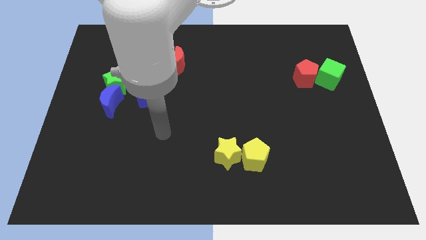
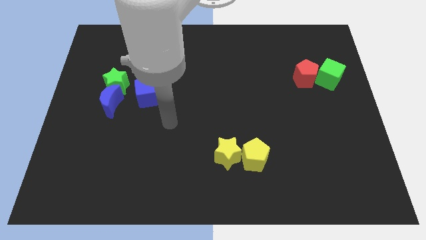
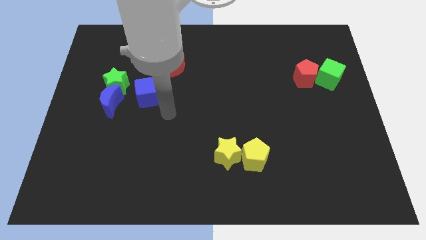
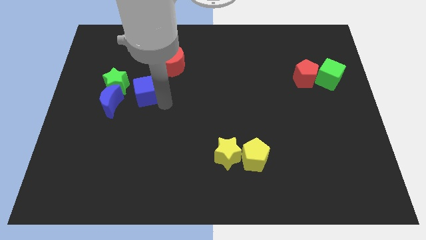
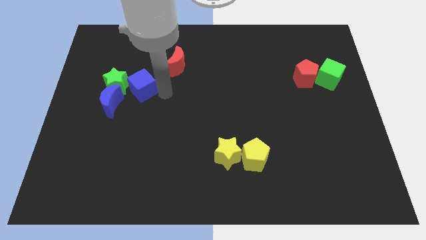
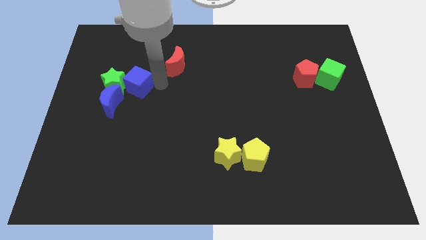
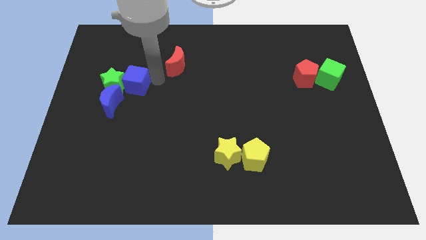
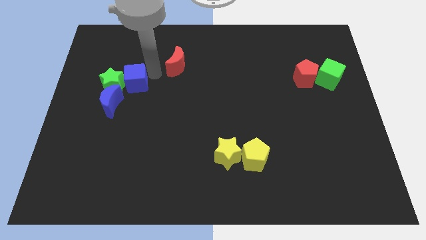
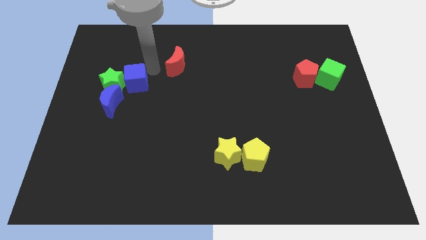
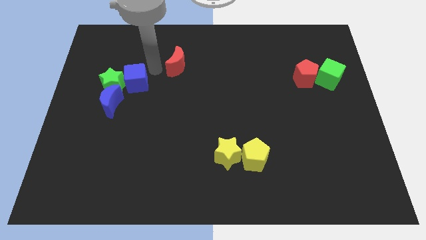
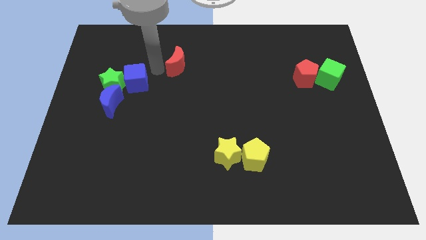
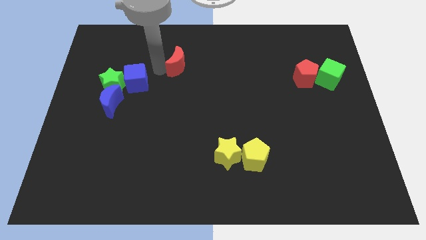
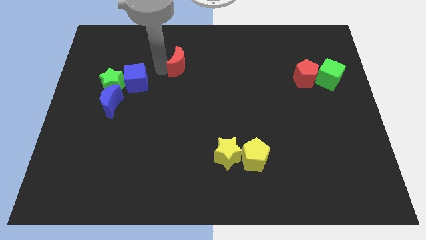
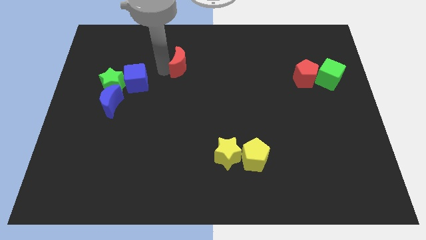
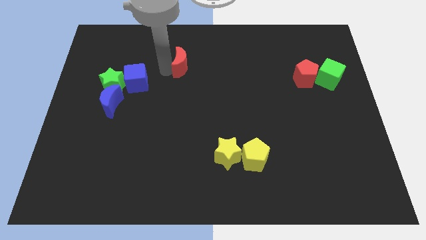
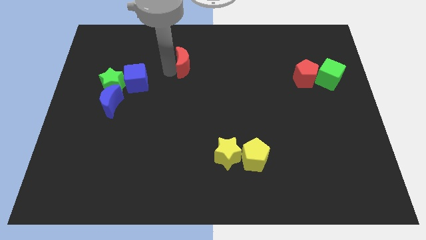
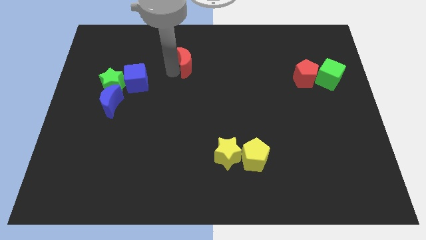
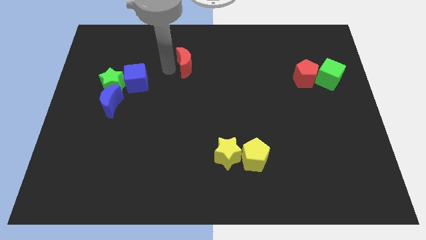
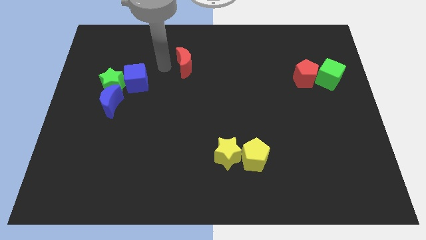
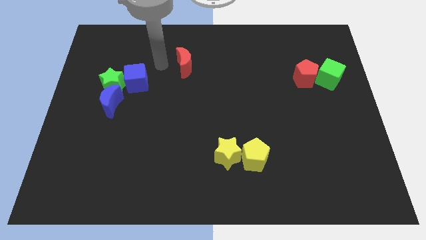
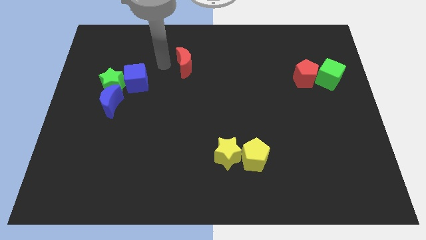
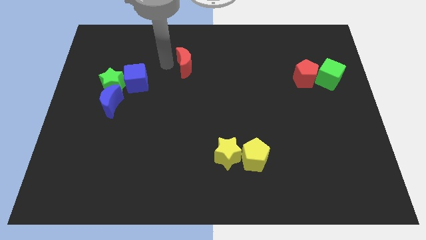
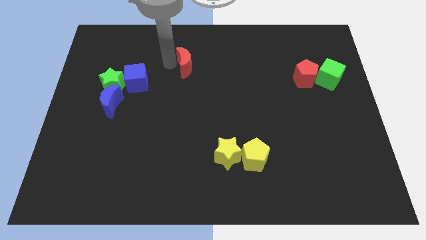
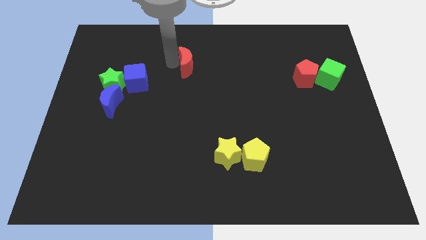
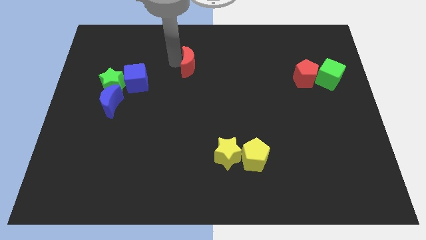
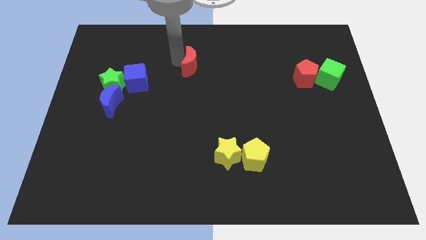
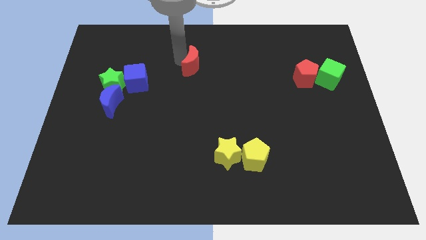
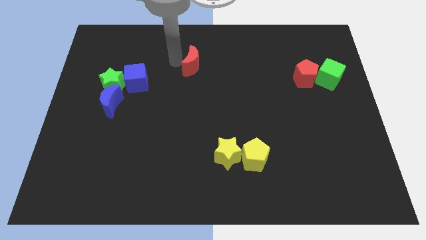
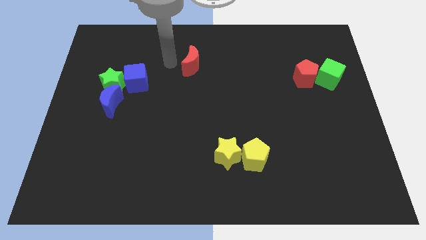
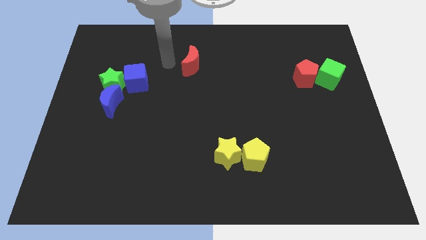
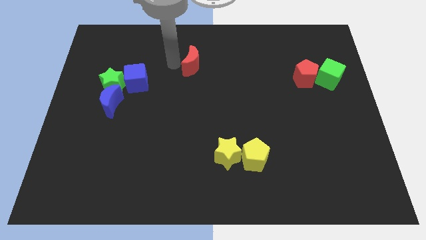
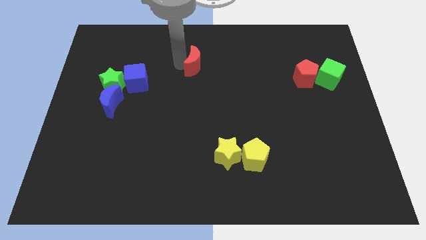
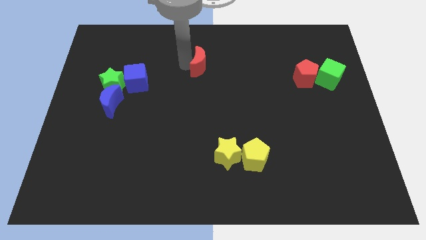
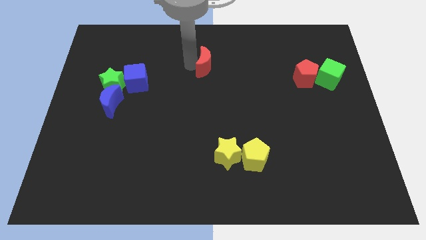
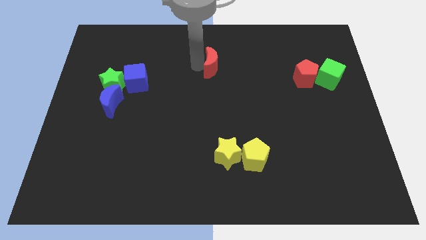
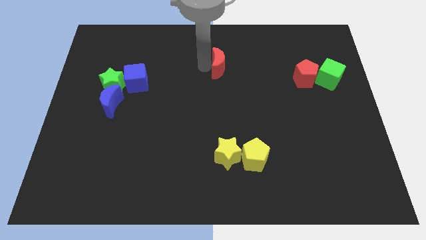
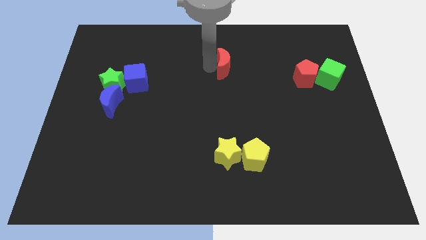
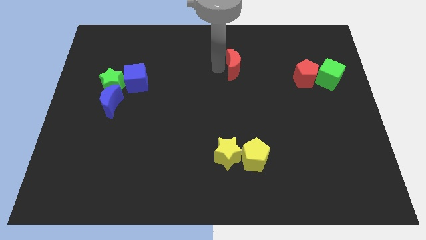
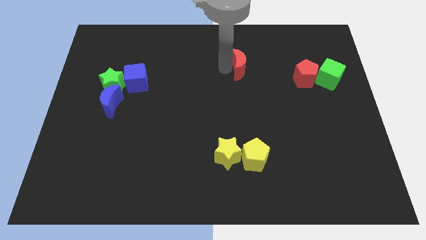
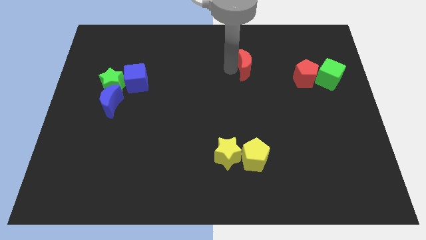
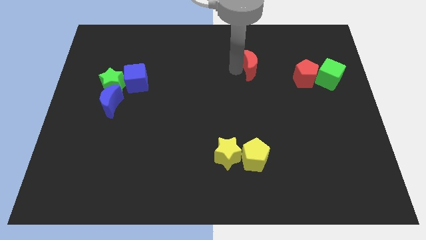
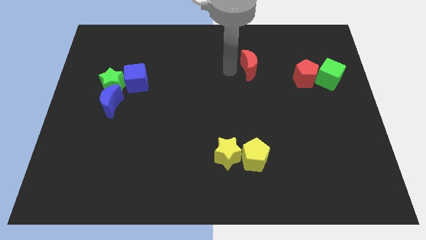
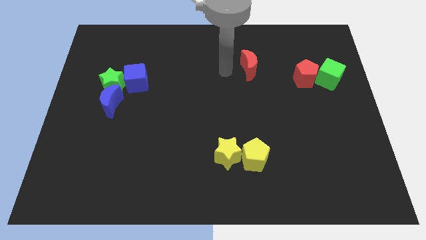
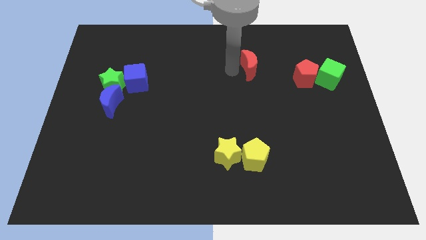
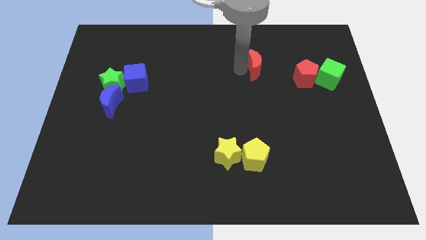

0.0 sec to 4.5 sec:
slide the red moon right

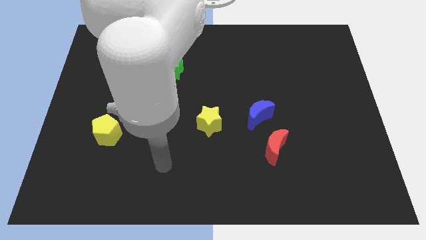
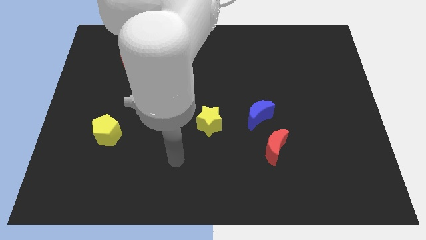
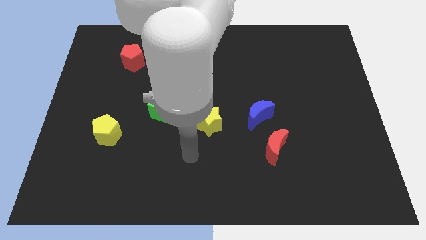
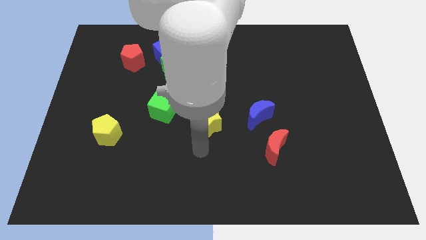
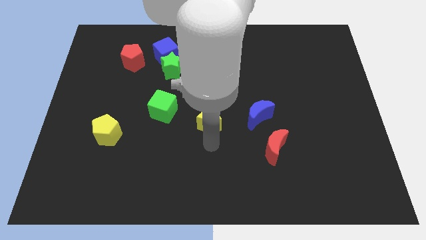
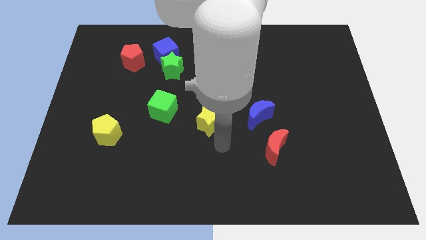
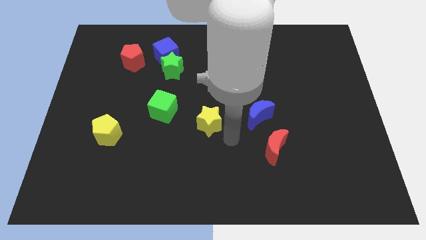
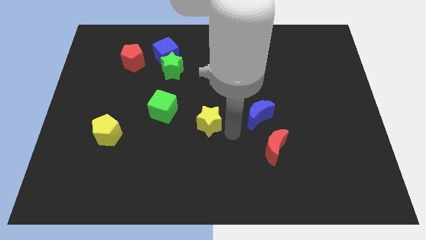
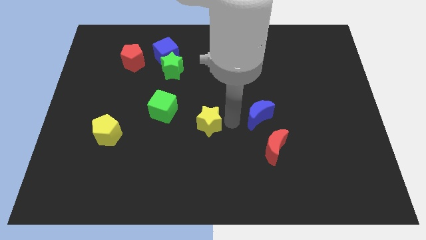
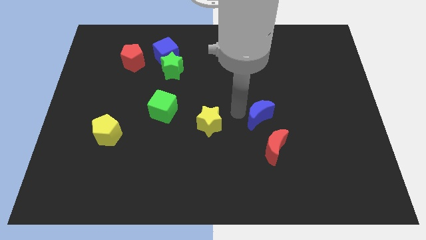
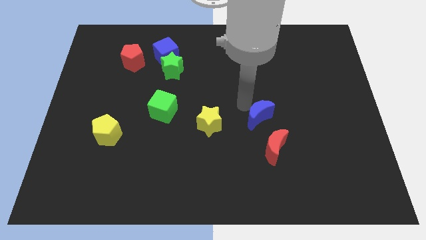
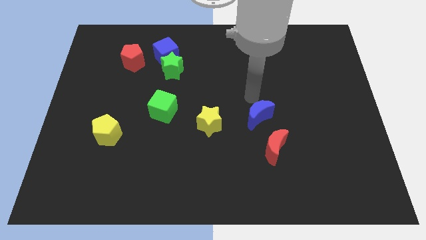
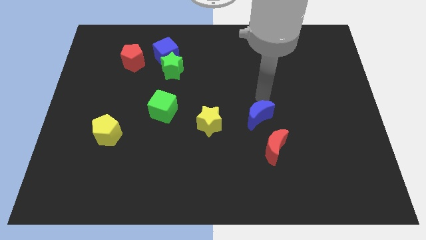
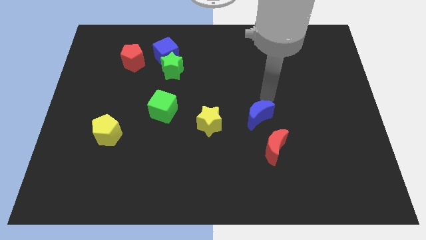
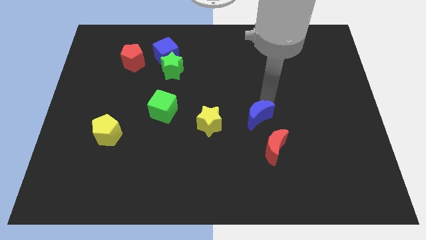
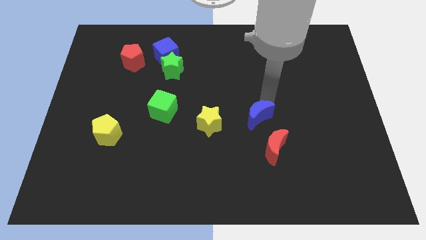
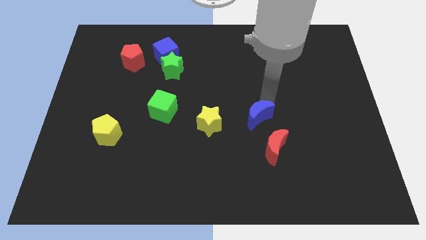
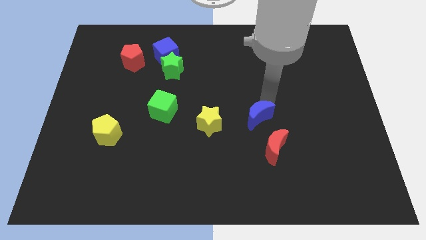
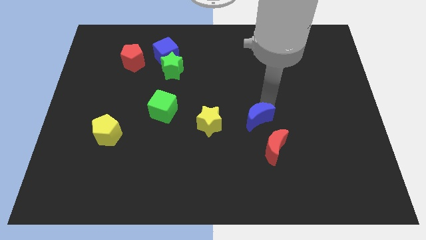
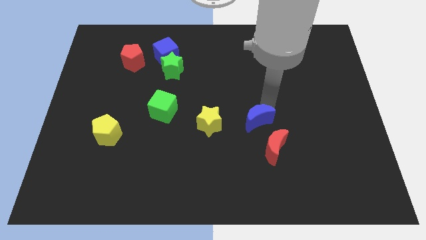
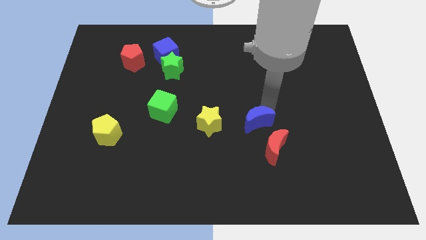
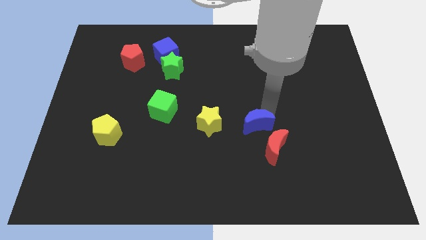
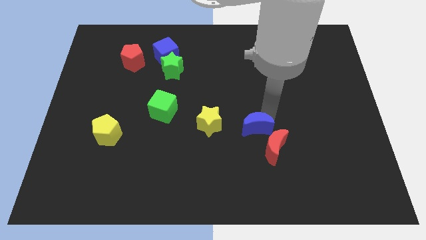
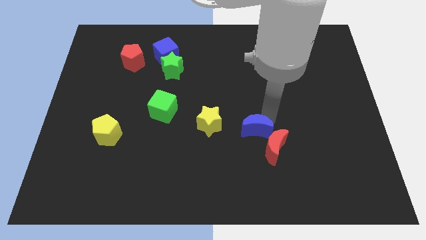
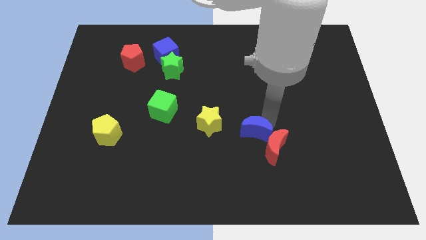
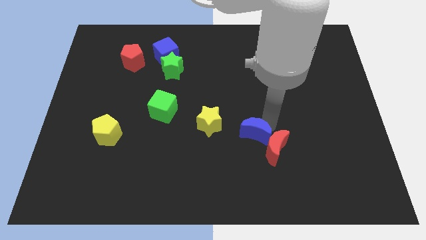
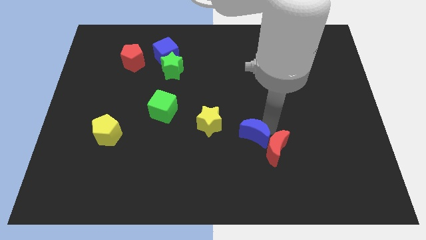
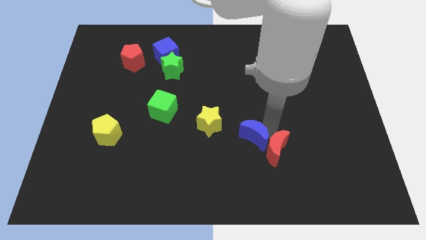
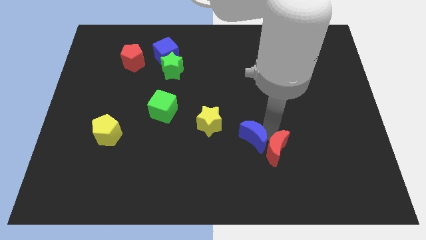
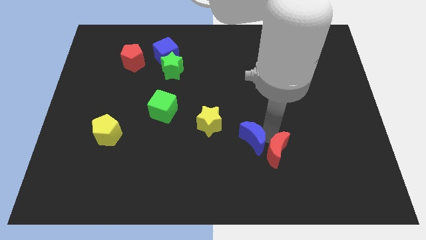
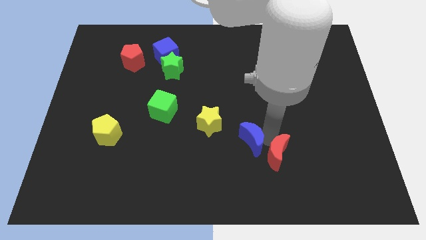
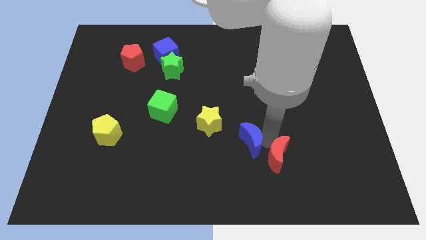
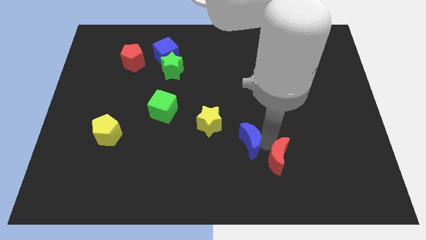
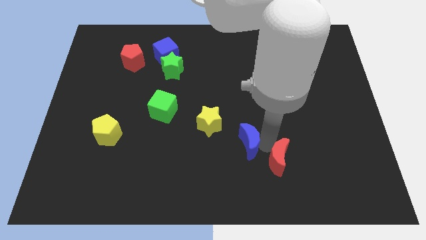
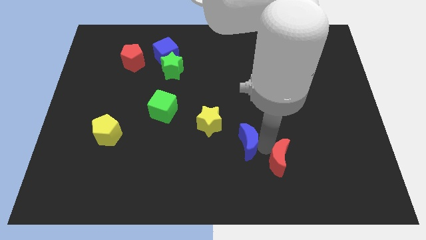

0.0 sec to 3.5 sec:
slightly push the blue moon downwards and then left
